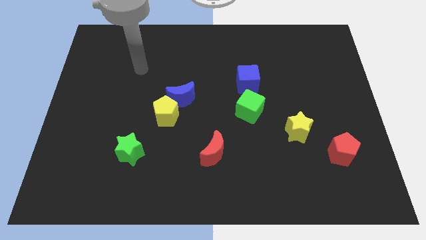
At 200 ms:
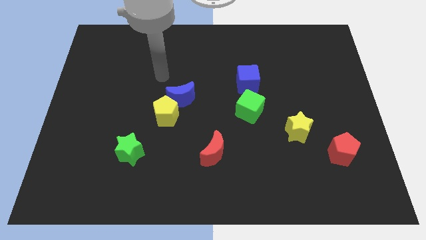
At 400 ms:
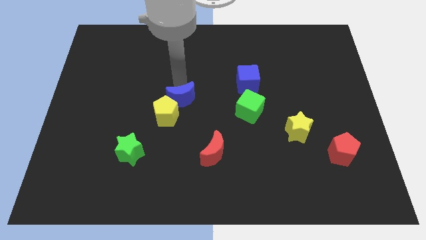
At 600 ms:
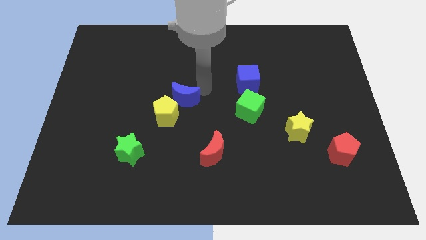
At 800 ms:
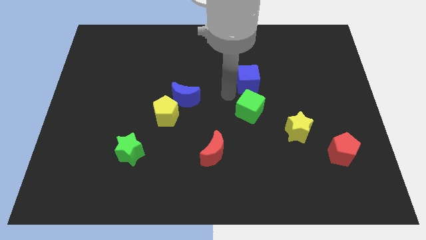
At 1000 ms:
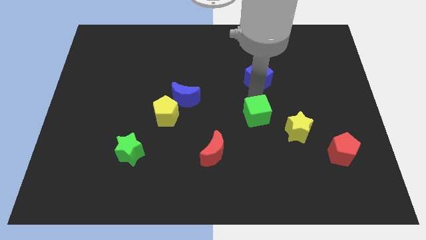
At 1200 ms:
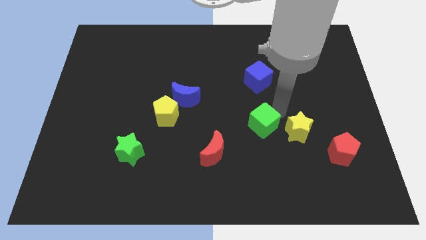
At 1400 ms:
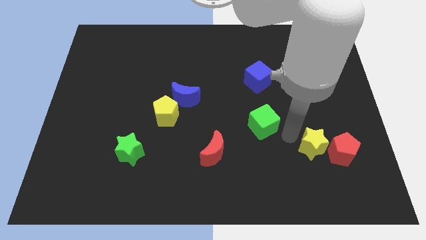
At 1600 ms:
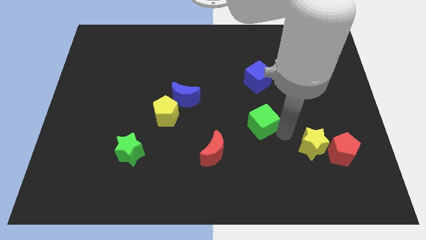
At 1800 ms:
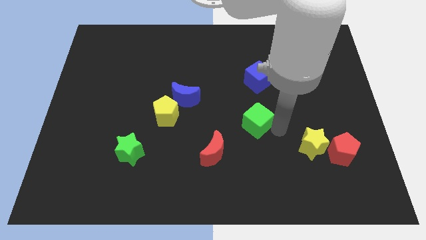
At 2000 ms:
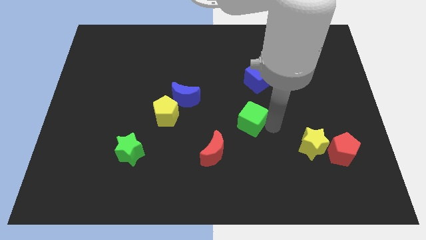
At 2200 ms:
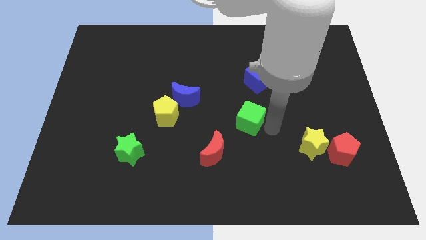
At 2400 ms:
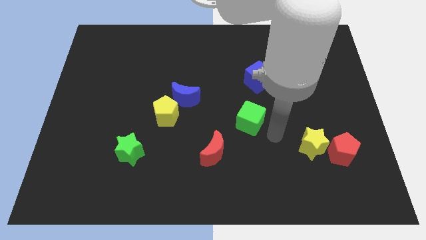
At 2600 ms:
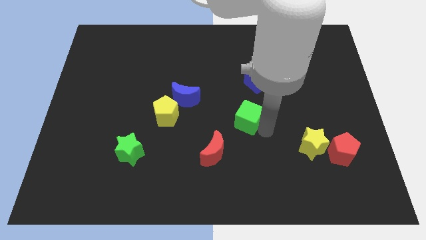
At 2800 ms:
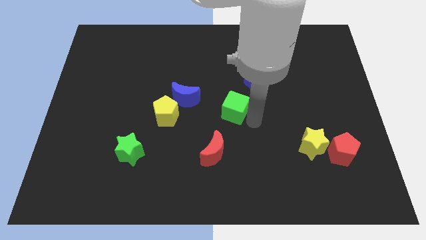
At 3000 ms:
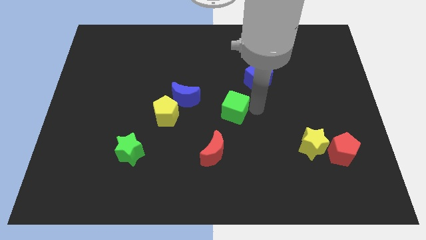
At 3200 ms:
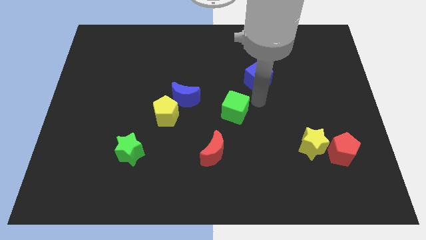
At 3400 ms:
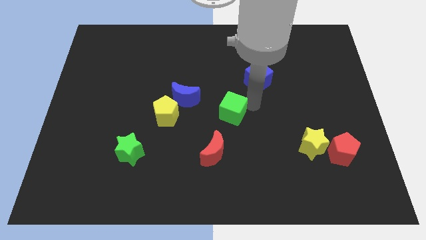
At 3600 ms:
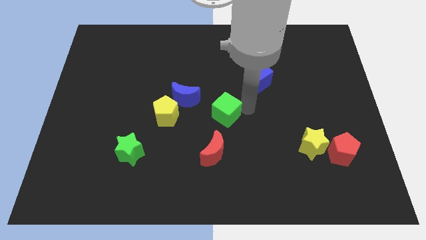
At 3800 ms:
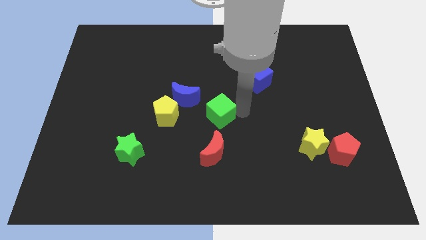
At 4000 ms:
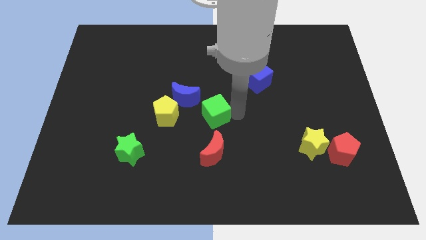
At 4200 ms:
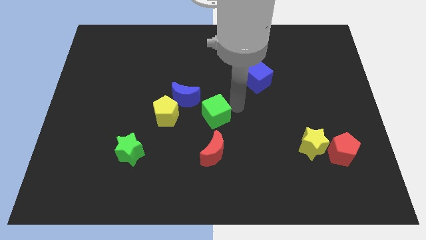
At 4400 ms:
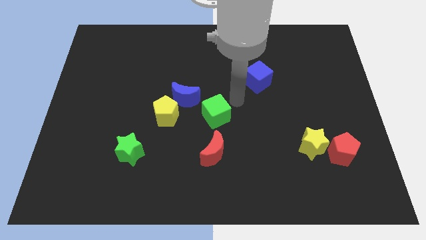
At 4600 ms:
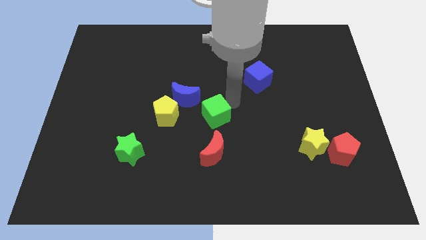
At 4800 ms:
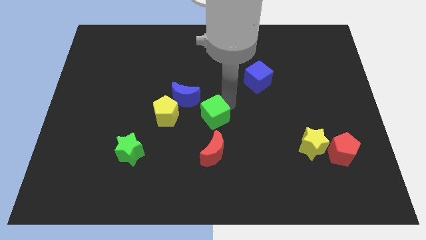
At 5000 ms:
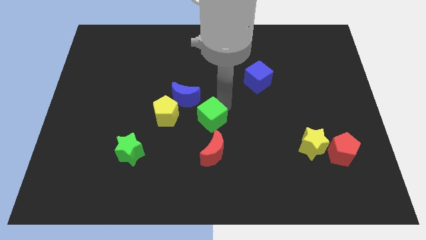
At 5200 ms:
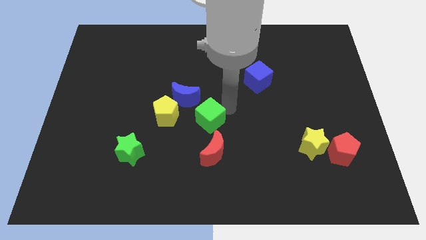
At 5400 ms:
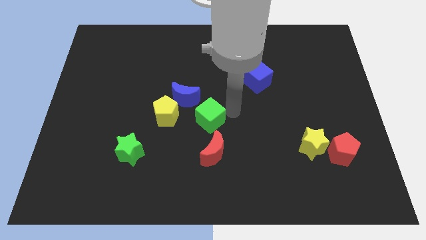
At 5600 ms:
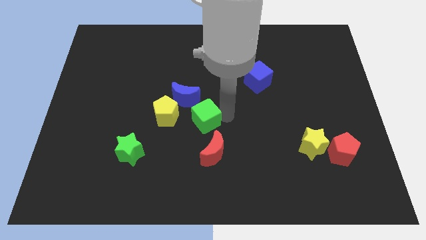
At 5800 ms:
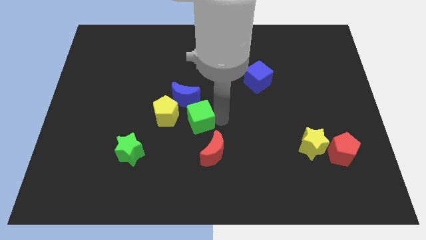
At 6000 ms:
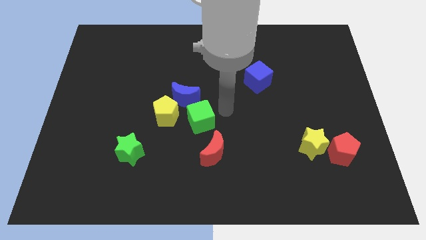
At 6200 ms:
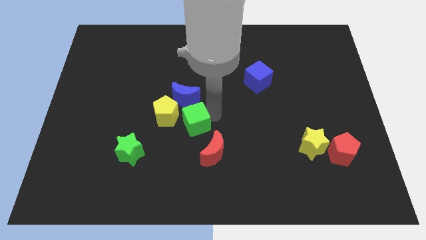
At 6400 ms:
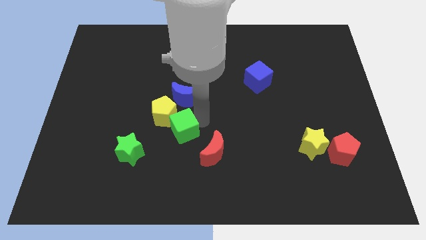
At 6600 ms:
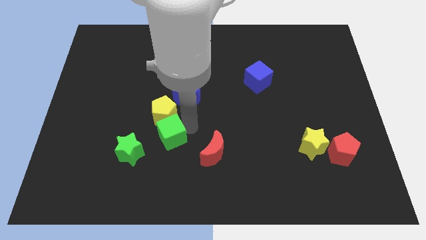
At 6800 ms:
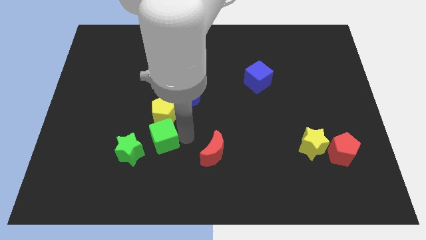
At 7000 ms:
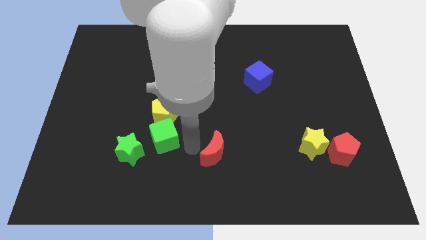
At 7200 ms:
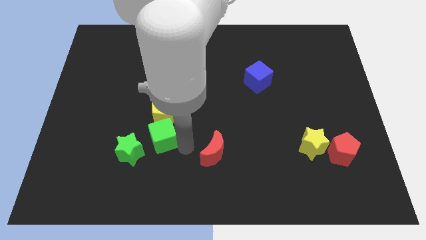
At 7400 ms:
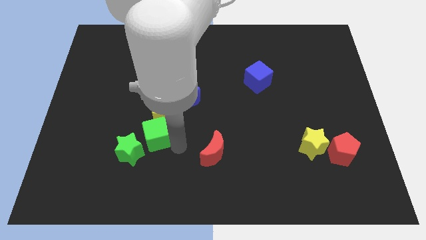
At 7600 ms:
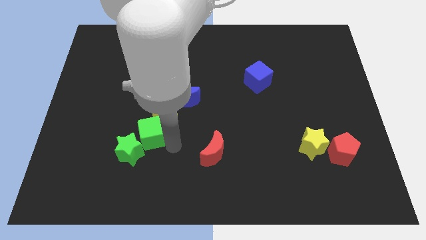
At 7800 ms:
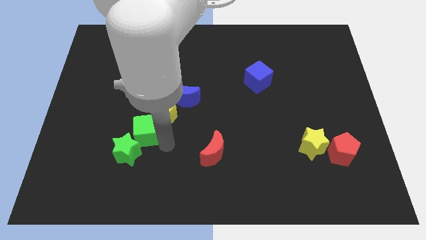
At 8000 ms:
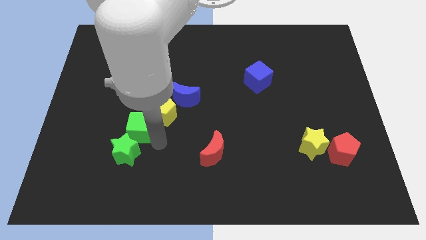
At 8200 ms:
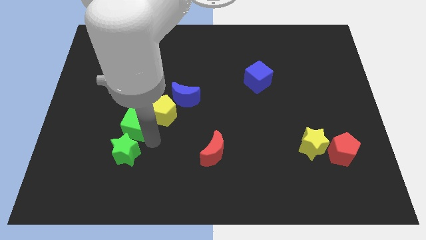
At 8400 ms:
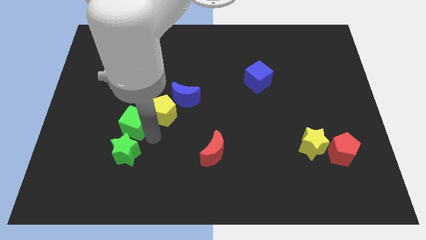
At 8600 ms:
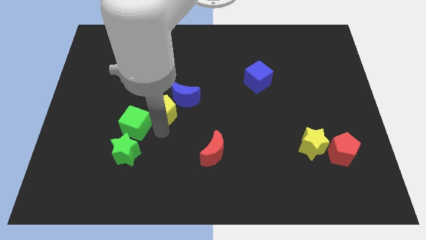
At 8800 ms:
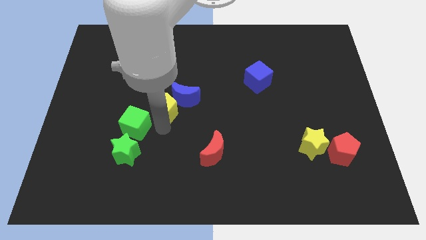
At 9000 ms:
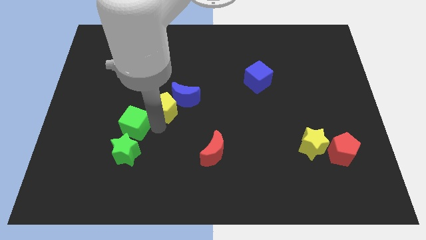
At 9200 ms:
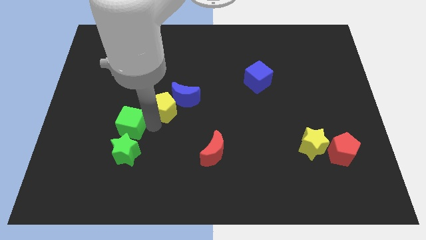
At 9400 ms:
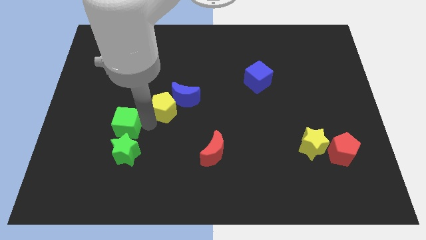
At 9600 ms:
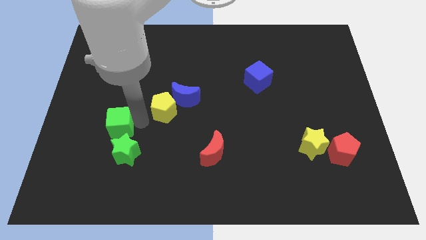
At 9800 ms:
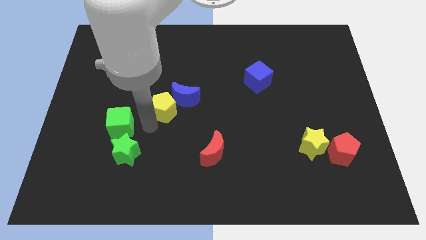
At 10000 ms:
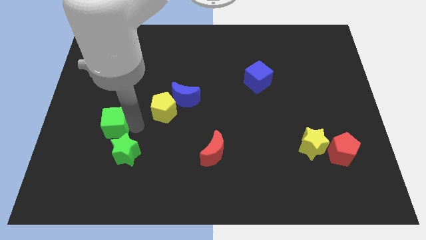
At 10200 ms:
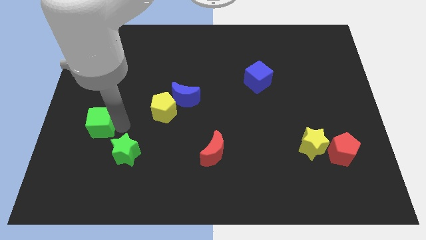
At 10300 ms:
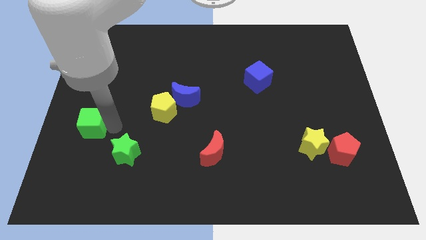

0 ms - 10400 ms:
push the green cube to the left side

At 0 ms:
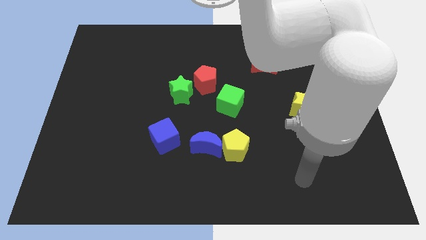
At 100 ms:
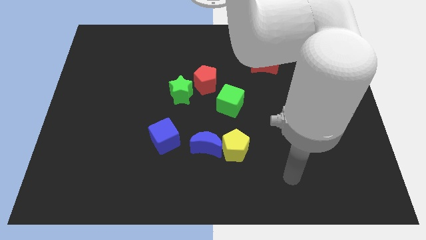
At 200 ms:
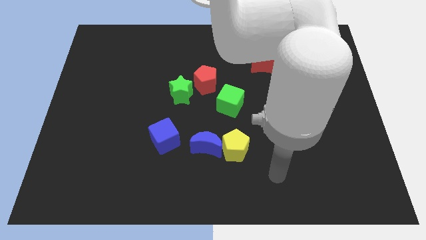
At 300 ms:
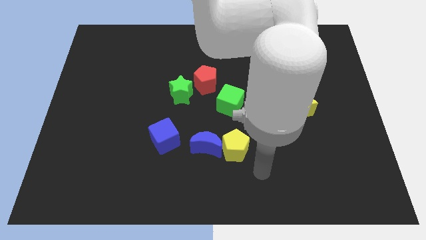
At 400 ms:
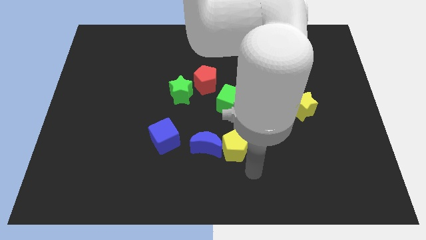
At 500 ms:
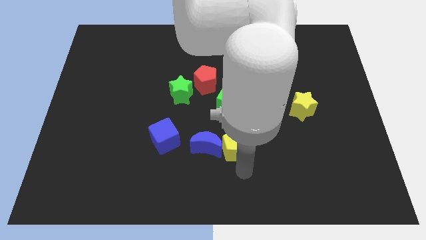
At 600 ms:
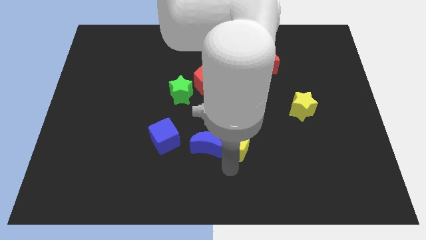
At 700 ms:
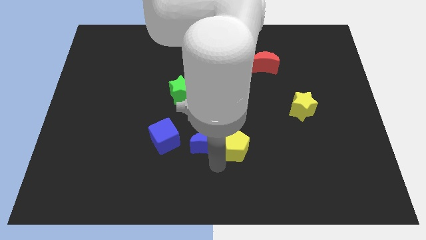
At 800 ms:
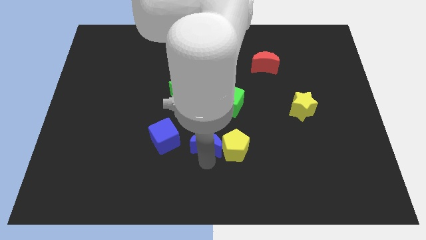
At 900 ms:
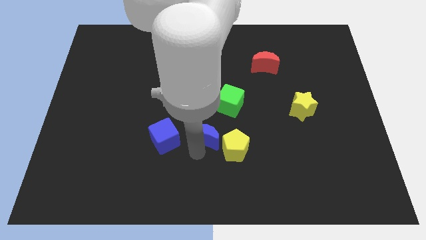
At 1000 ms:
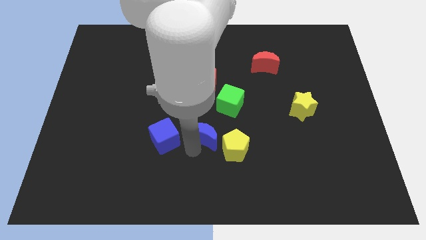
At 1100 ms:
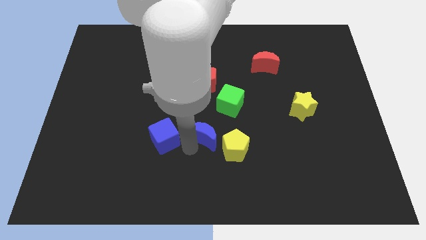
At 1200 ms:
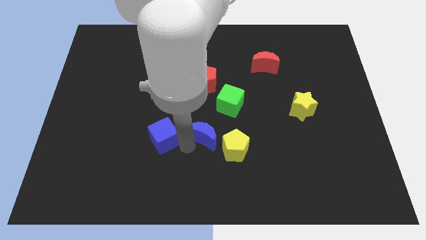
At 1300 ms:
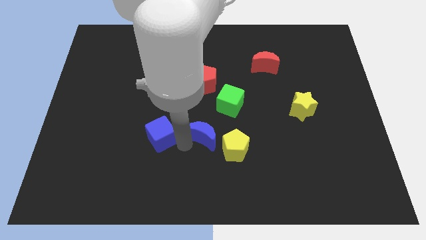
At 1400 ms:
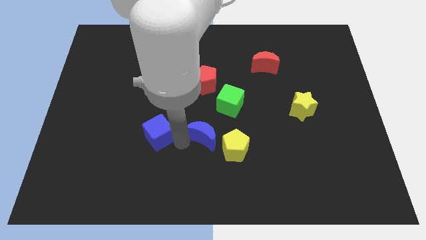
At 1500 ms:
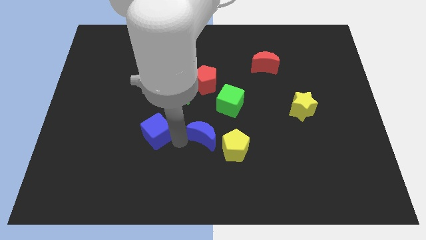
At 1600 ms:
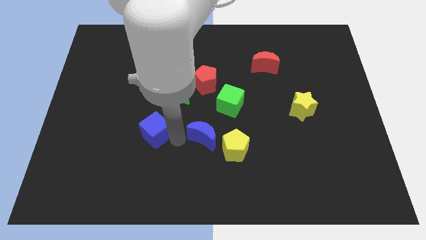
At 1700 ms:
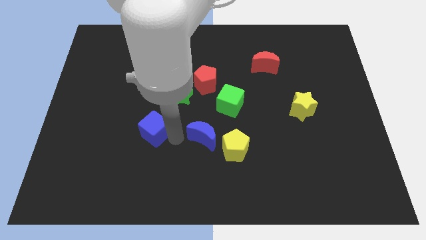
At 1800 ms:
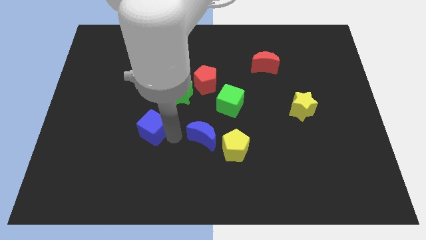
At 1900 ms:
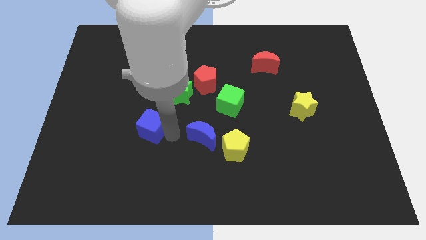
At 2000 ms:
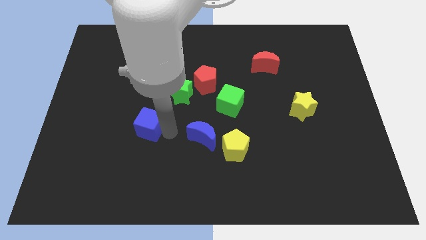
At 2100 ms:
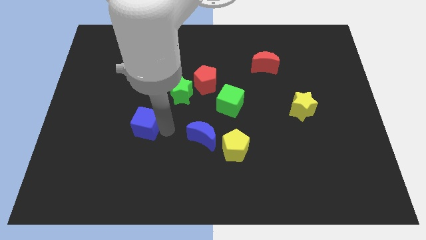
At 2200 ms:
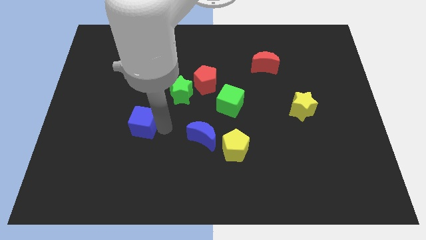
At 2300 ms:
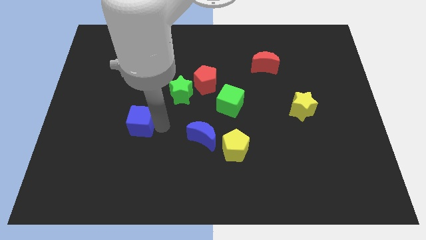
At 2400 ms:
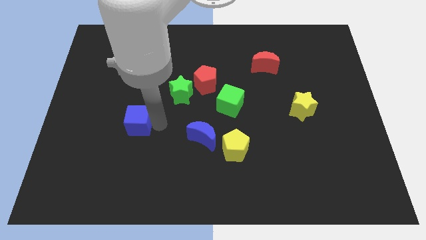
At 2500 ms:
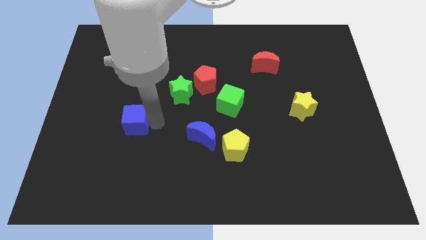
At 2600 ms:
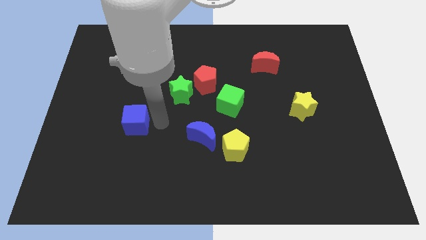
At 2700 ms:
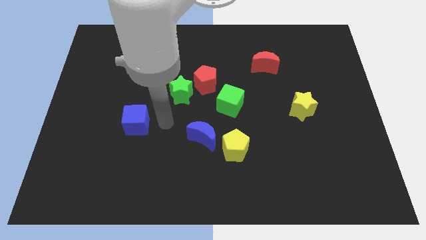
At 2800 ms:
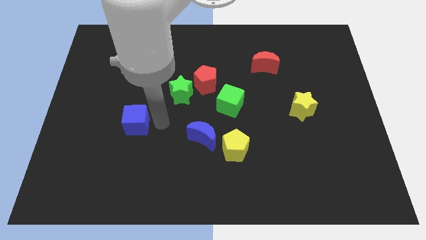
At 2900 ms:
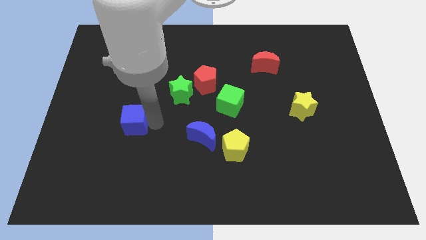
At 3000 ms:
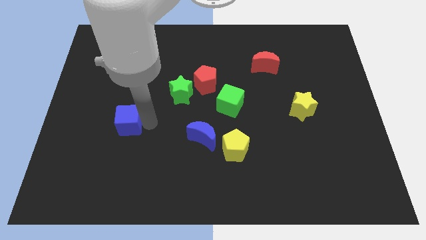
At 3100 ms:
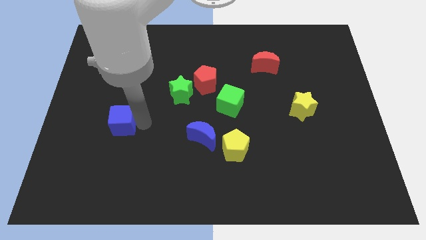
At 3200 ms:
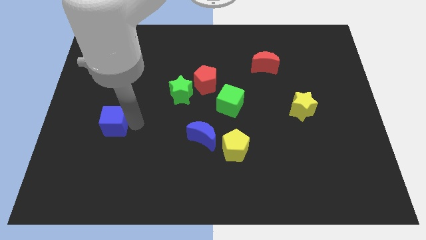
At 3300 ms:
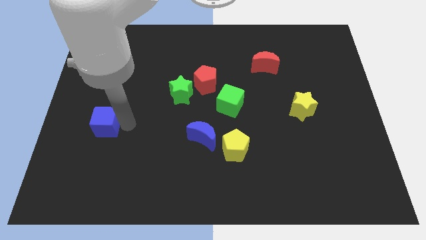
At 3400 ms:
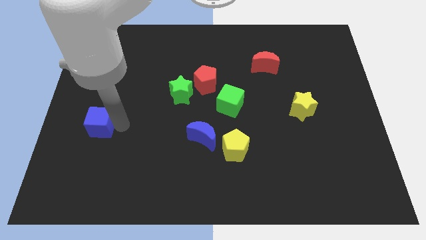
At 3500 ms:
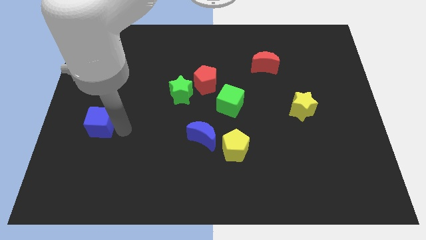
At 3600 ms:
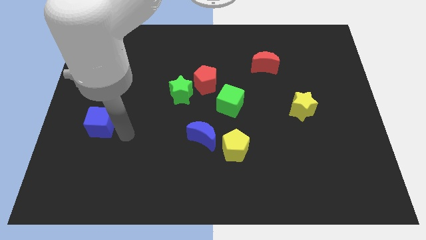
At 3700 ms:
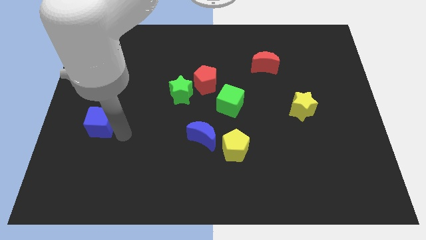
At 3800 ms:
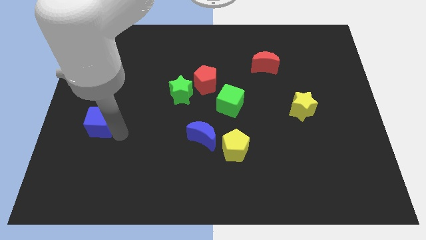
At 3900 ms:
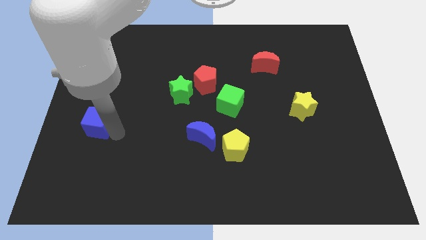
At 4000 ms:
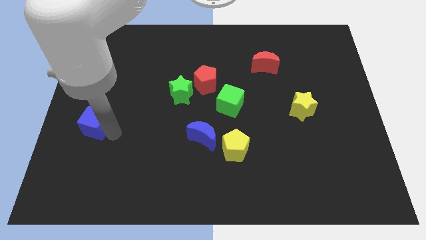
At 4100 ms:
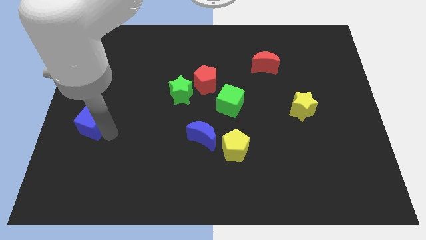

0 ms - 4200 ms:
push the blue cube to the left side of the board
